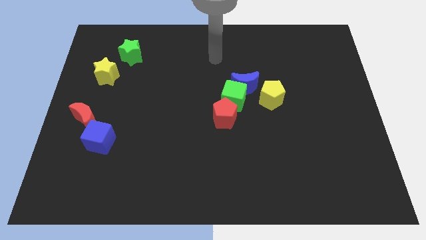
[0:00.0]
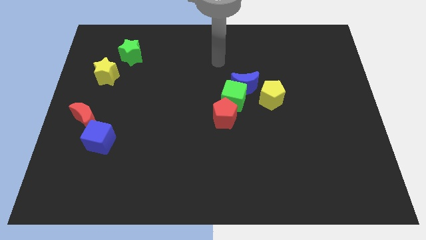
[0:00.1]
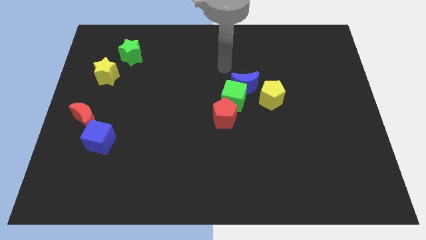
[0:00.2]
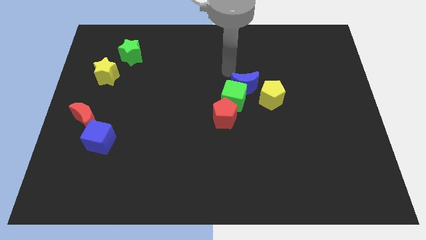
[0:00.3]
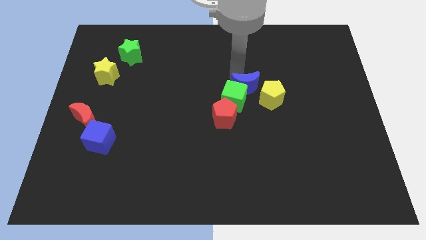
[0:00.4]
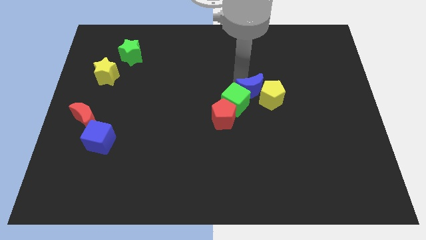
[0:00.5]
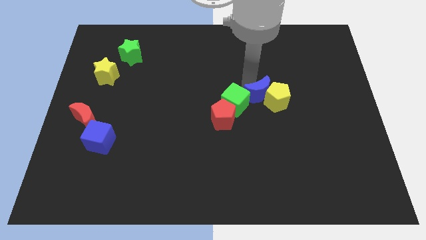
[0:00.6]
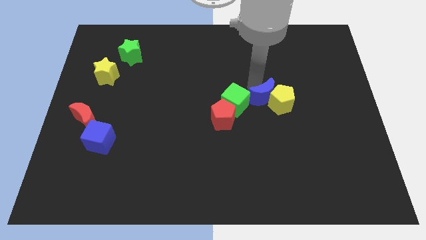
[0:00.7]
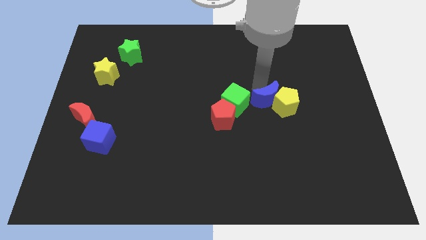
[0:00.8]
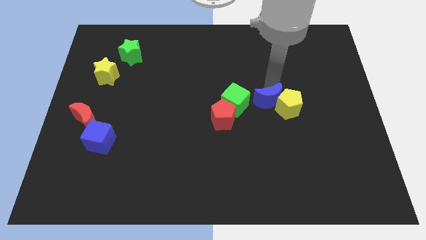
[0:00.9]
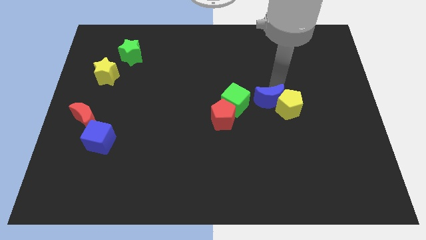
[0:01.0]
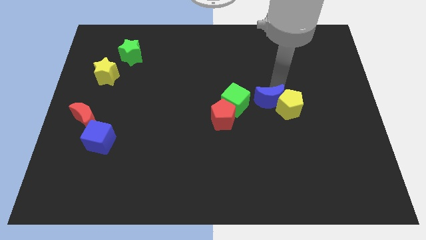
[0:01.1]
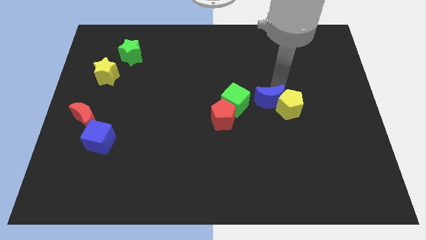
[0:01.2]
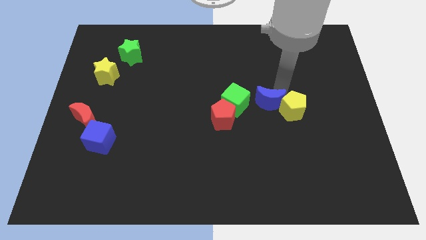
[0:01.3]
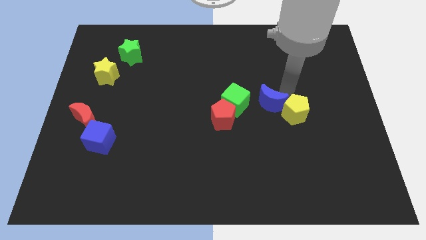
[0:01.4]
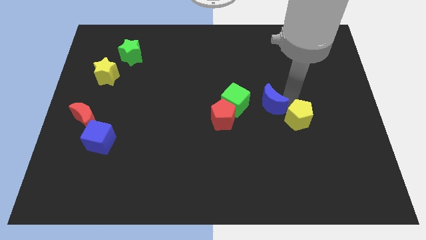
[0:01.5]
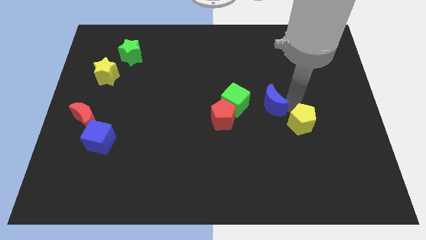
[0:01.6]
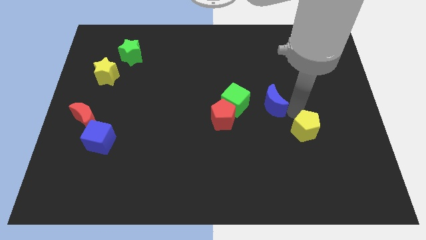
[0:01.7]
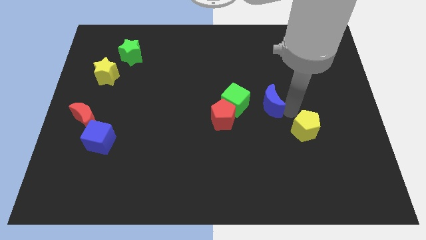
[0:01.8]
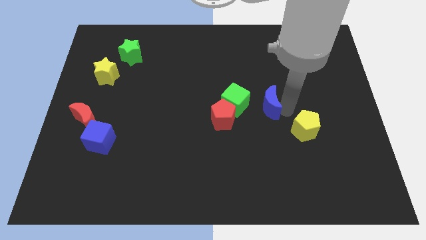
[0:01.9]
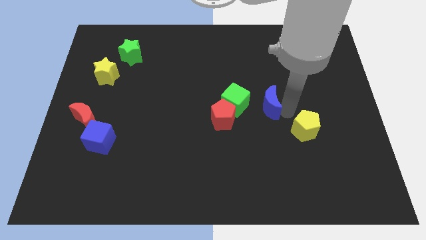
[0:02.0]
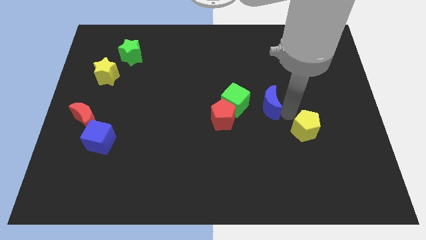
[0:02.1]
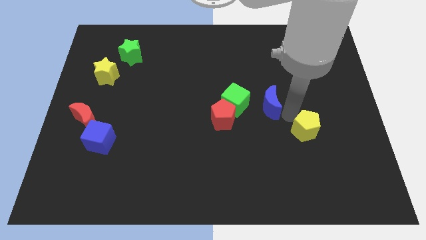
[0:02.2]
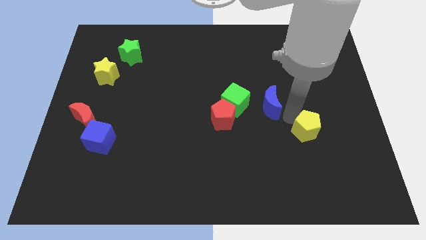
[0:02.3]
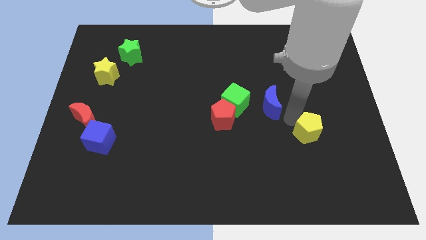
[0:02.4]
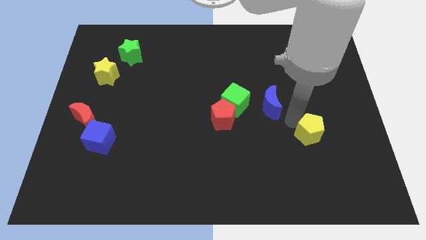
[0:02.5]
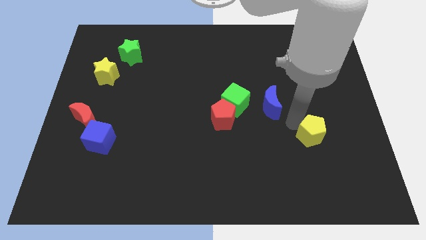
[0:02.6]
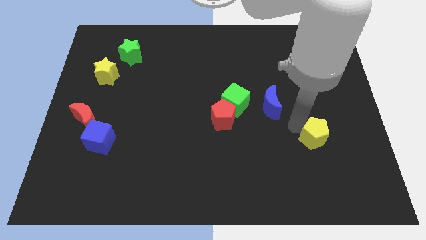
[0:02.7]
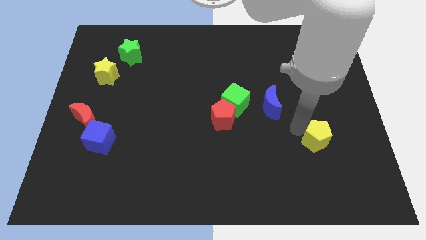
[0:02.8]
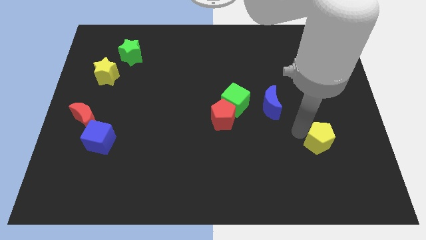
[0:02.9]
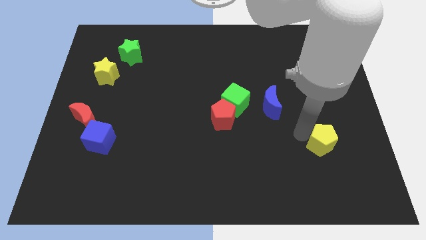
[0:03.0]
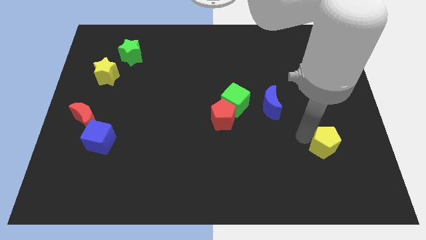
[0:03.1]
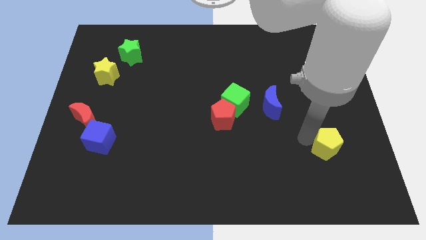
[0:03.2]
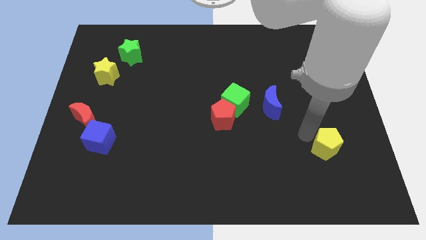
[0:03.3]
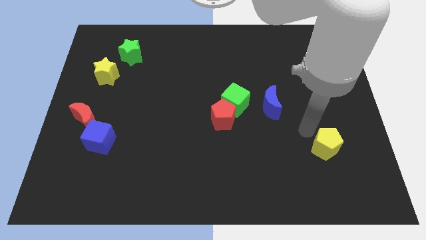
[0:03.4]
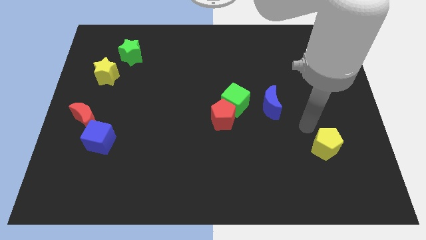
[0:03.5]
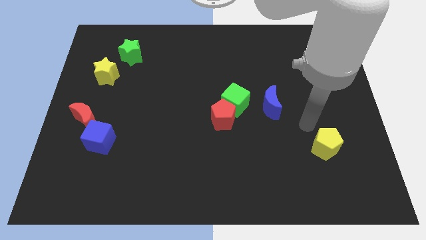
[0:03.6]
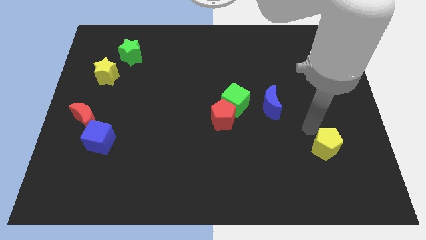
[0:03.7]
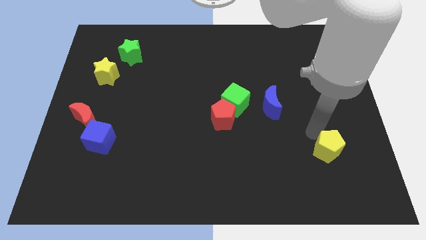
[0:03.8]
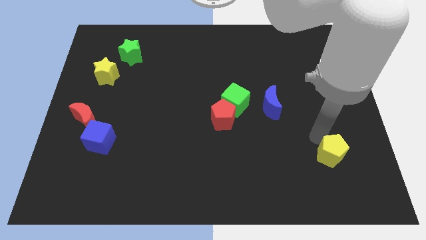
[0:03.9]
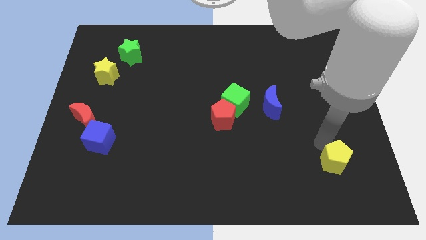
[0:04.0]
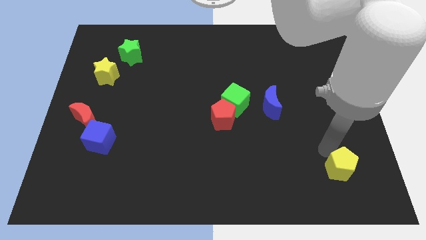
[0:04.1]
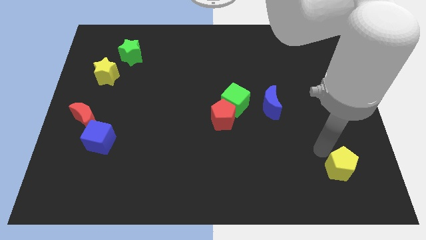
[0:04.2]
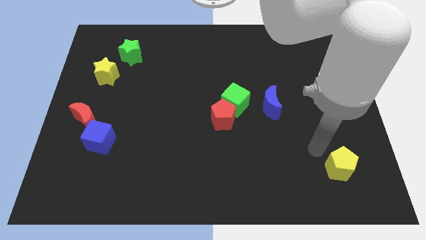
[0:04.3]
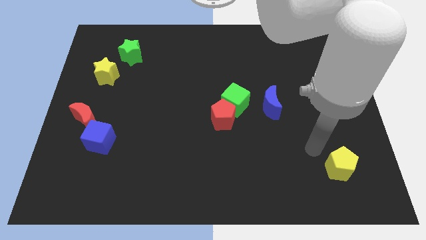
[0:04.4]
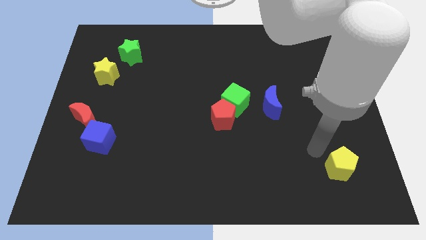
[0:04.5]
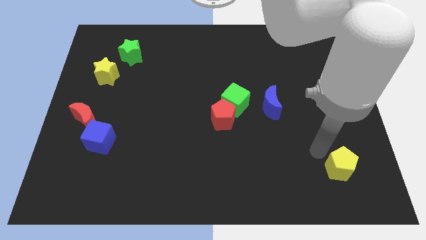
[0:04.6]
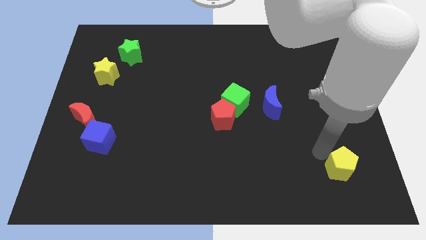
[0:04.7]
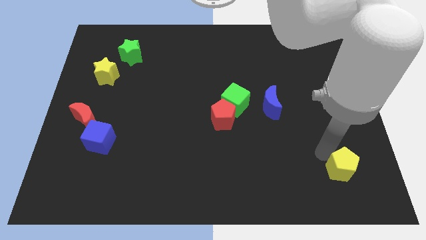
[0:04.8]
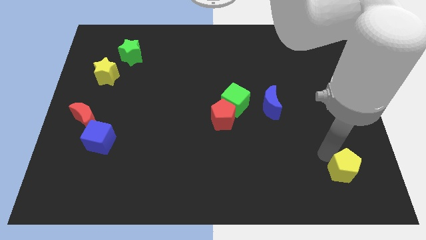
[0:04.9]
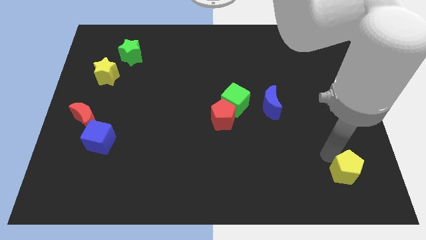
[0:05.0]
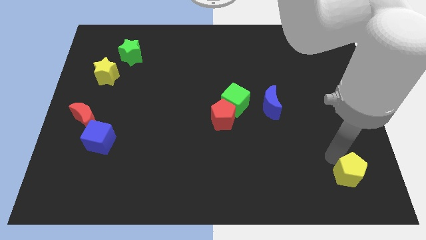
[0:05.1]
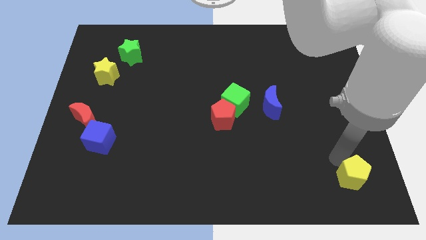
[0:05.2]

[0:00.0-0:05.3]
push the yellow pentagon to the lower right corner
